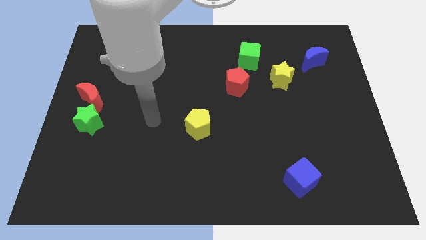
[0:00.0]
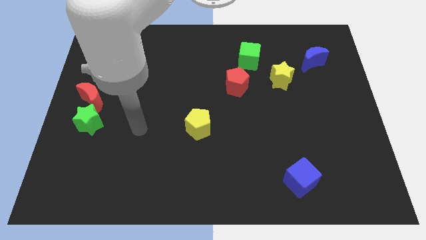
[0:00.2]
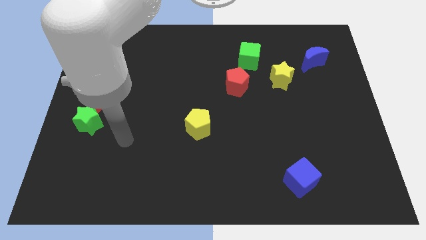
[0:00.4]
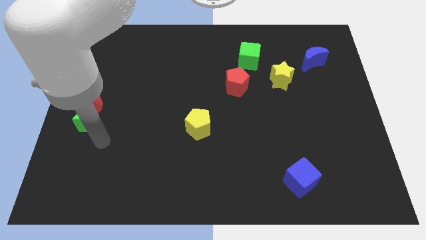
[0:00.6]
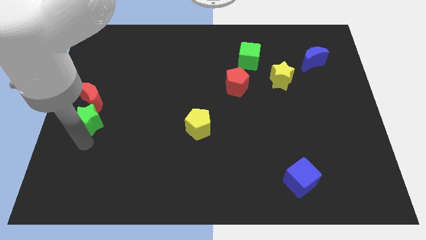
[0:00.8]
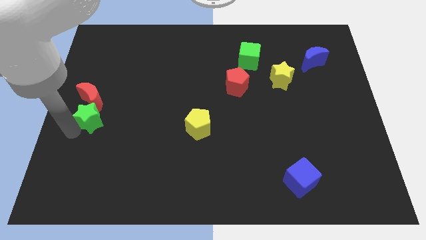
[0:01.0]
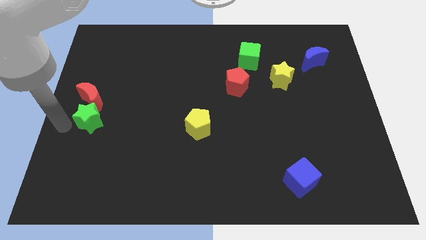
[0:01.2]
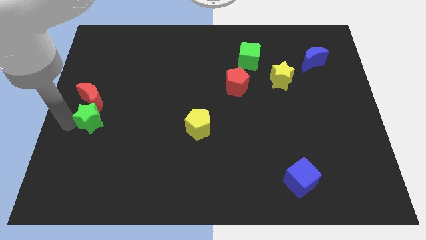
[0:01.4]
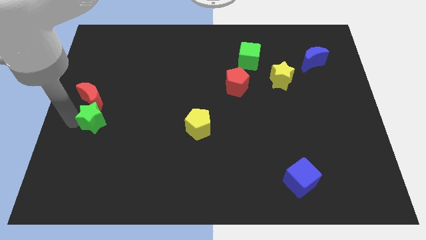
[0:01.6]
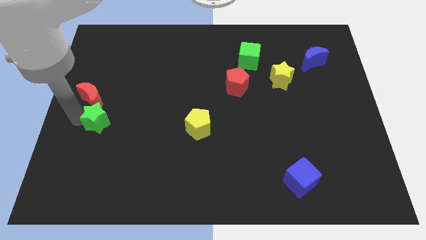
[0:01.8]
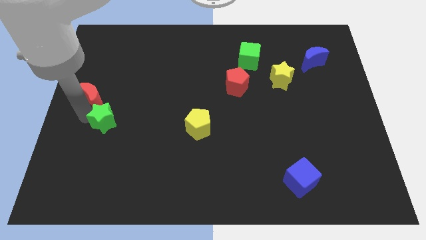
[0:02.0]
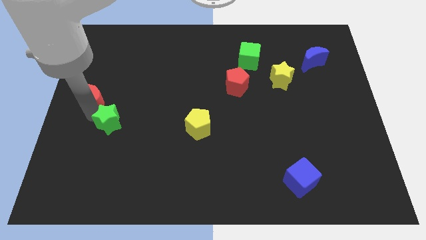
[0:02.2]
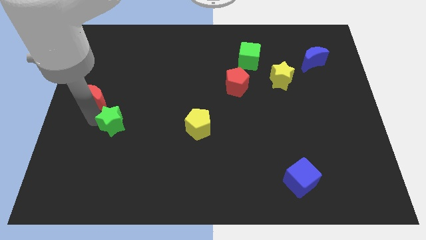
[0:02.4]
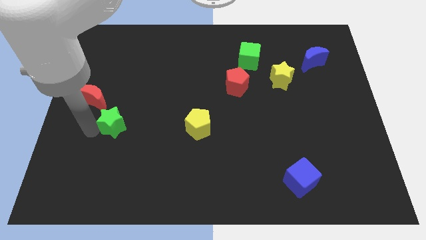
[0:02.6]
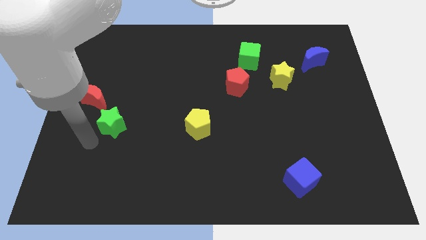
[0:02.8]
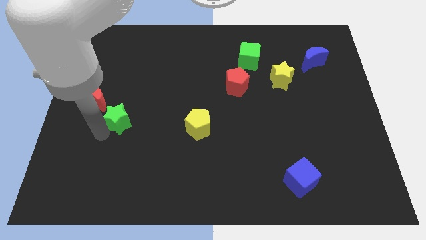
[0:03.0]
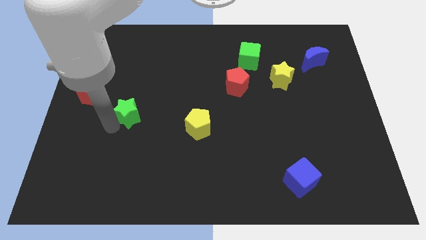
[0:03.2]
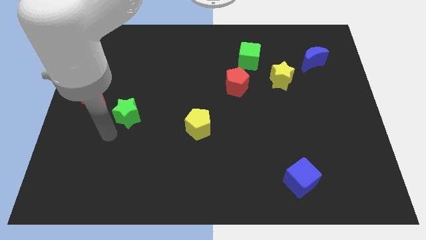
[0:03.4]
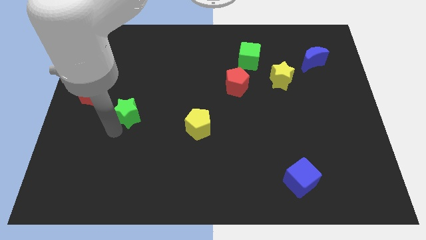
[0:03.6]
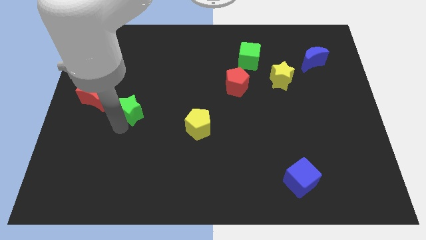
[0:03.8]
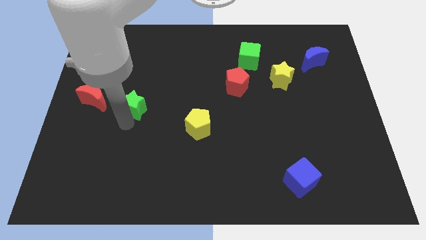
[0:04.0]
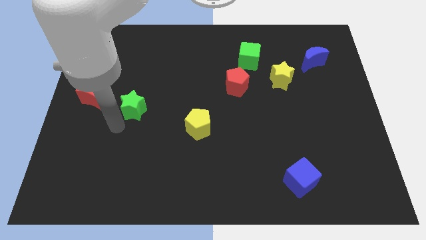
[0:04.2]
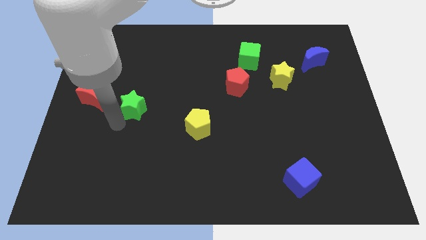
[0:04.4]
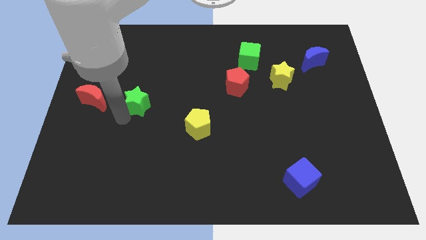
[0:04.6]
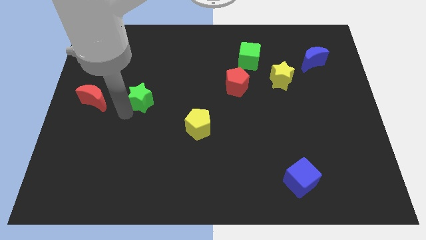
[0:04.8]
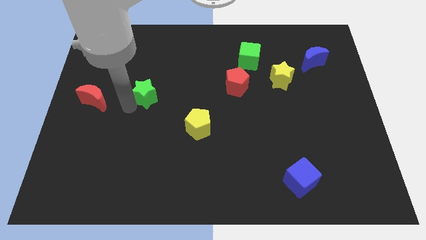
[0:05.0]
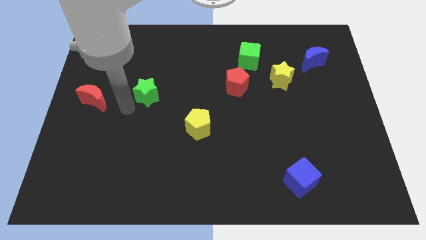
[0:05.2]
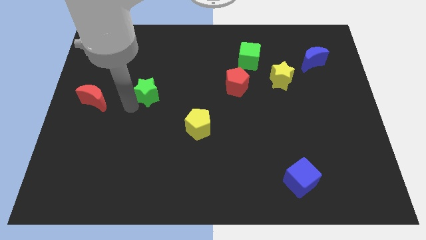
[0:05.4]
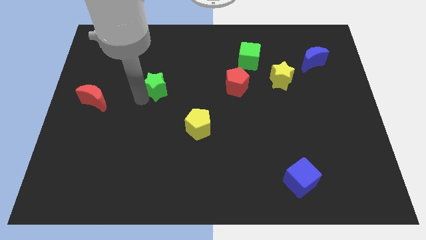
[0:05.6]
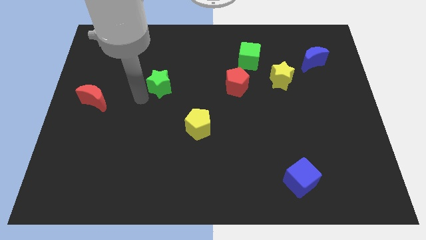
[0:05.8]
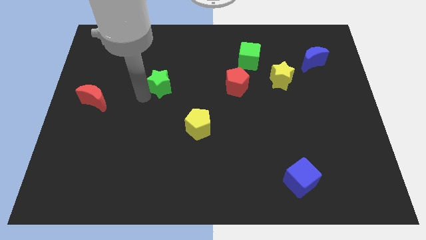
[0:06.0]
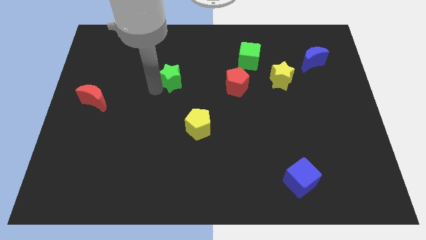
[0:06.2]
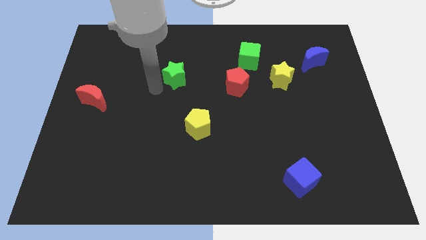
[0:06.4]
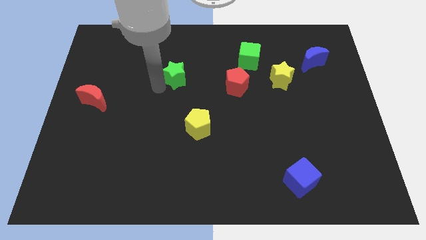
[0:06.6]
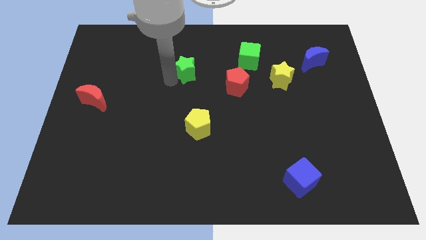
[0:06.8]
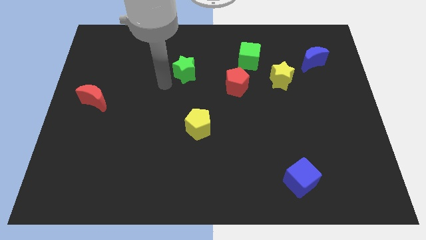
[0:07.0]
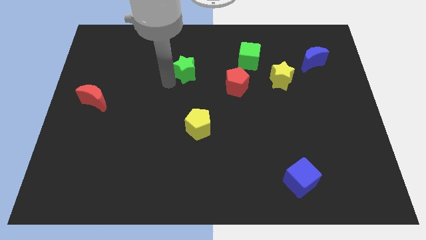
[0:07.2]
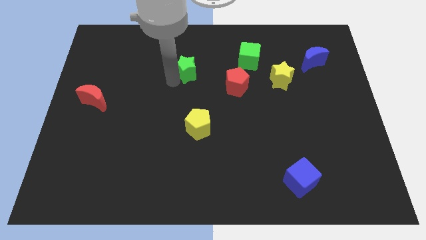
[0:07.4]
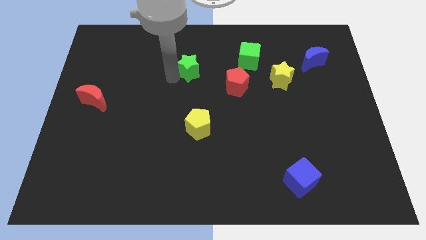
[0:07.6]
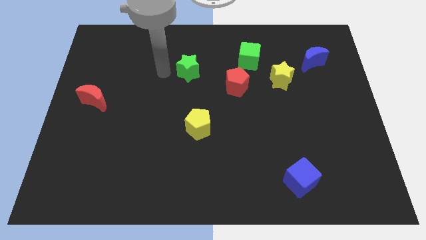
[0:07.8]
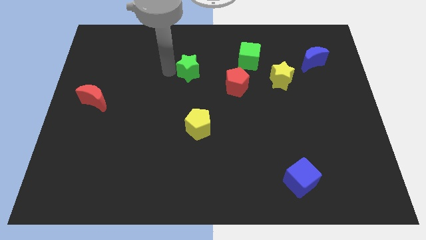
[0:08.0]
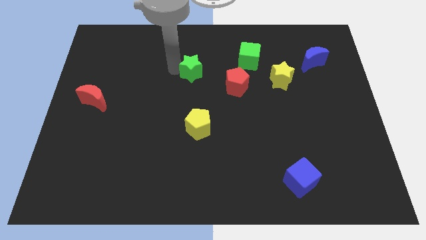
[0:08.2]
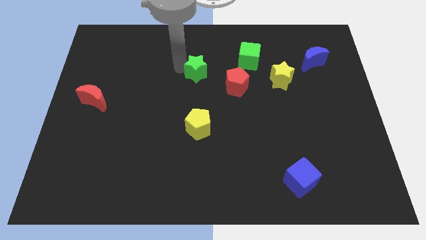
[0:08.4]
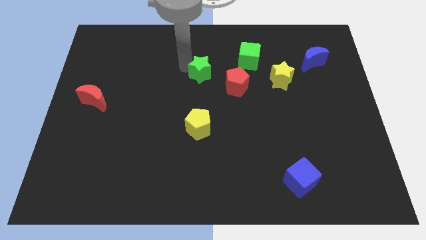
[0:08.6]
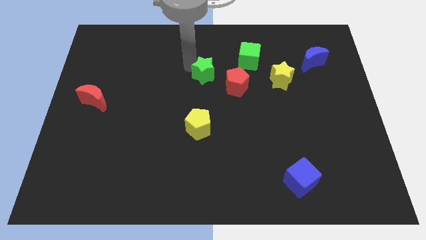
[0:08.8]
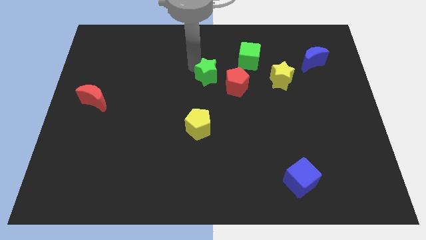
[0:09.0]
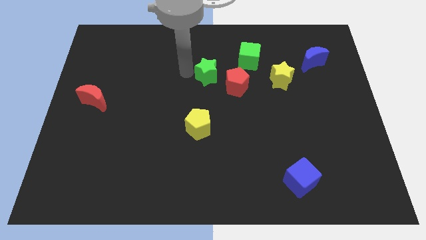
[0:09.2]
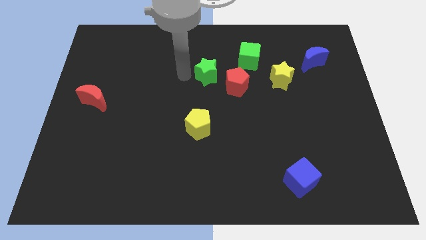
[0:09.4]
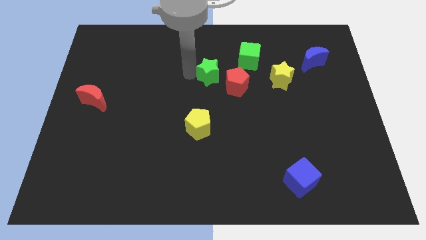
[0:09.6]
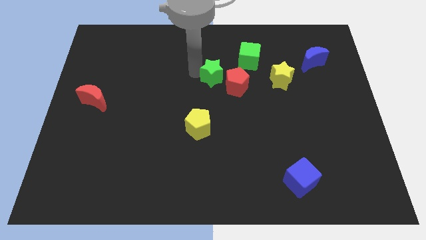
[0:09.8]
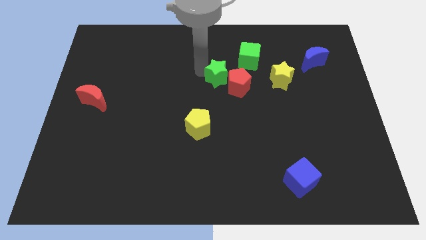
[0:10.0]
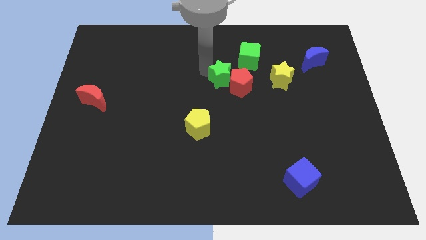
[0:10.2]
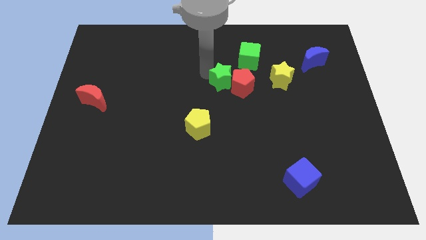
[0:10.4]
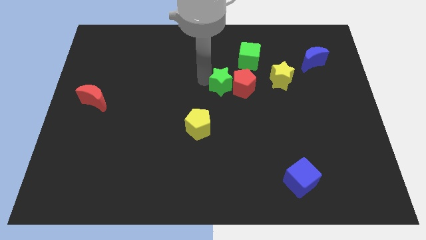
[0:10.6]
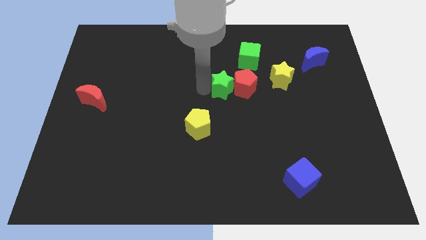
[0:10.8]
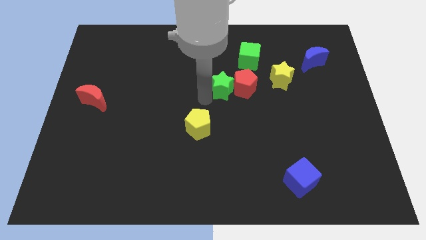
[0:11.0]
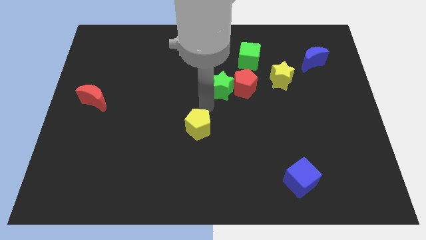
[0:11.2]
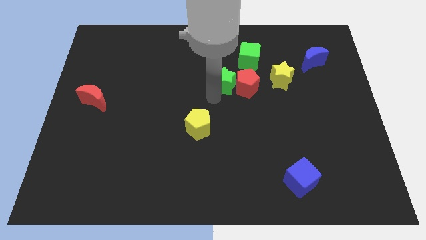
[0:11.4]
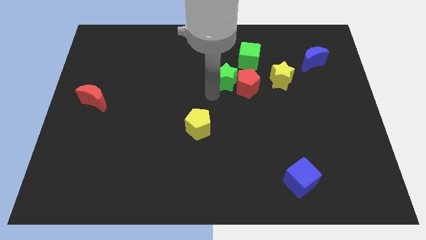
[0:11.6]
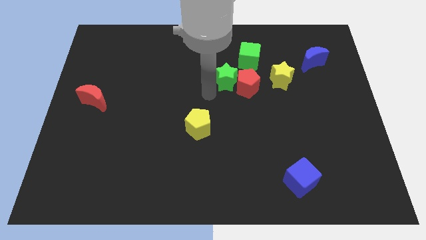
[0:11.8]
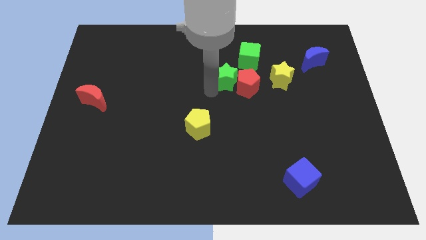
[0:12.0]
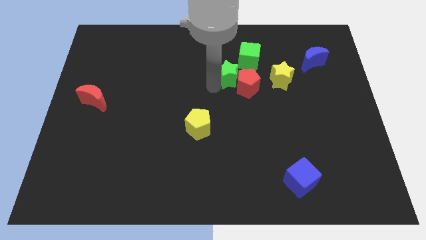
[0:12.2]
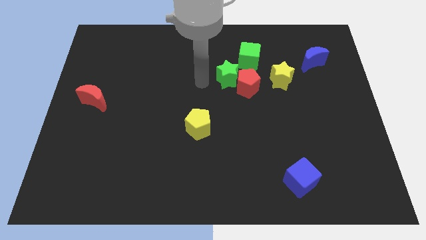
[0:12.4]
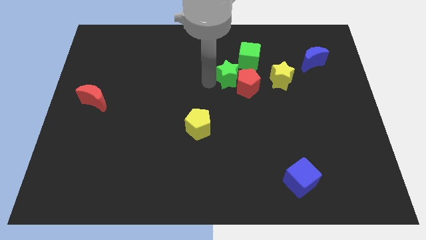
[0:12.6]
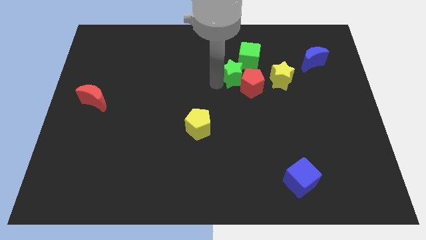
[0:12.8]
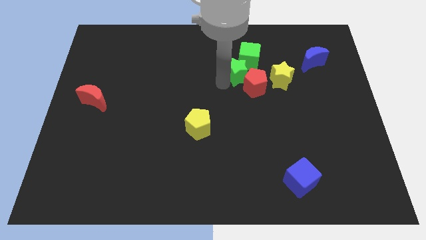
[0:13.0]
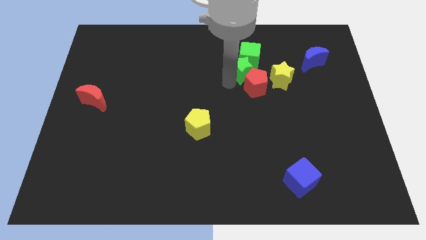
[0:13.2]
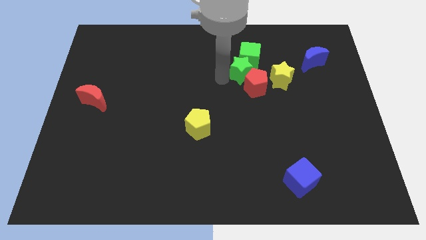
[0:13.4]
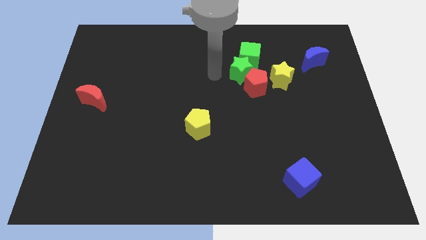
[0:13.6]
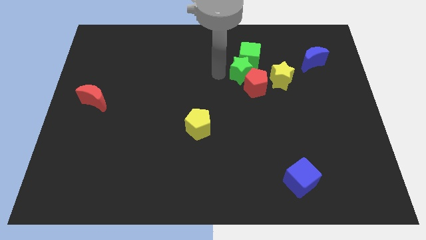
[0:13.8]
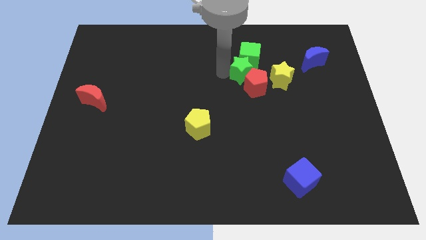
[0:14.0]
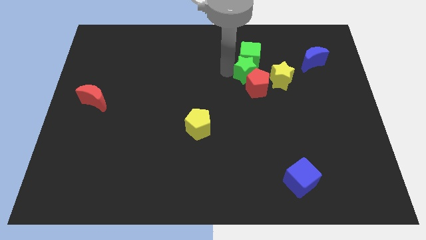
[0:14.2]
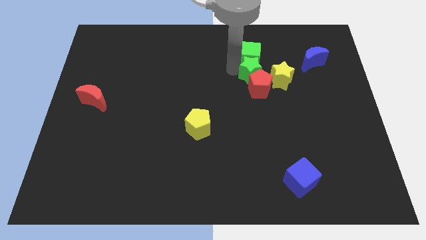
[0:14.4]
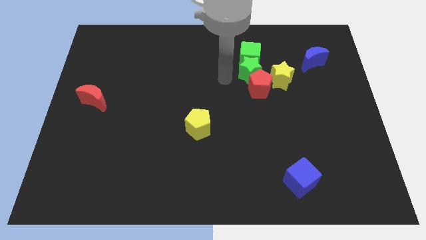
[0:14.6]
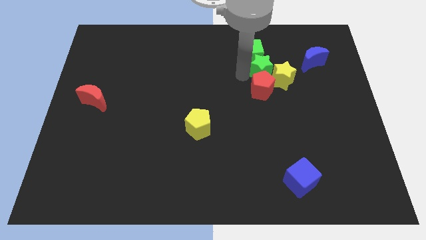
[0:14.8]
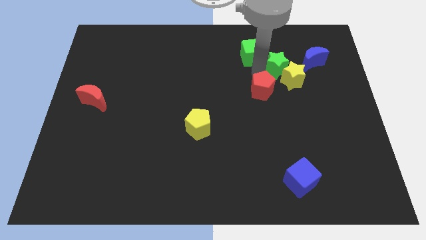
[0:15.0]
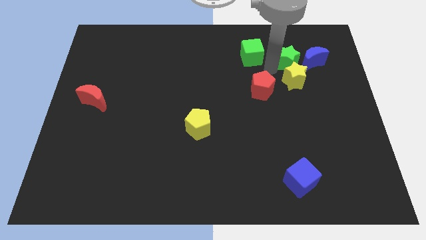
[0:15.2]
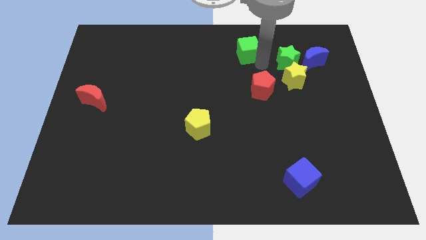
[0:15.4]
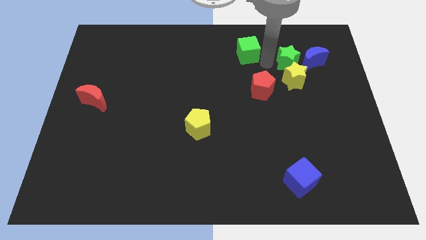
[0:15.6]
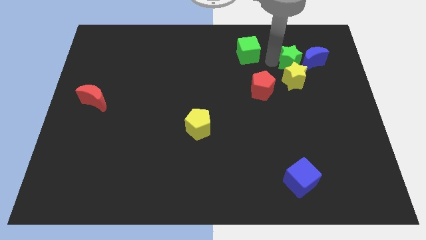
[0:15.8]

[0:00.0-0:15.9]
put the green star next to the blue moon
